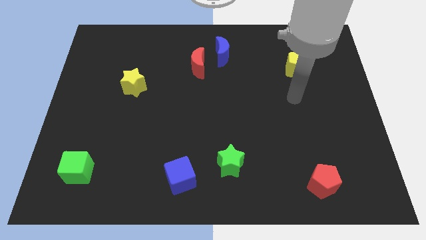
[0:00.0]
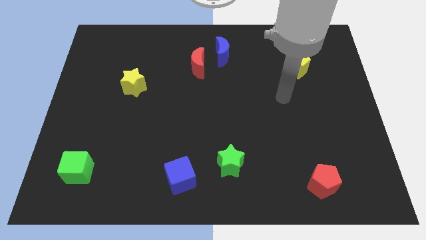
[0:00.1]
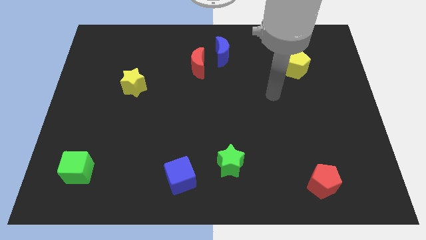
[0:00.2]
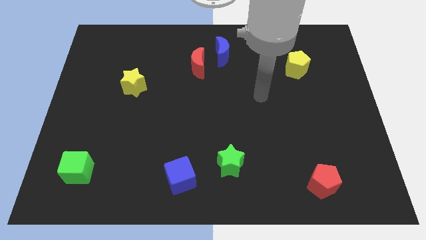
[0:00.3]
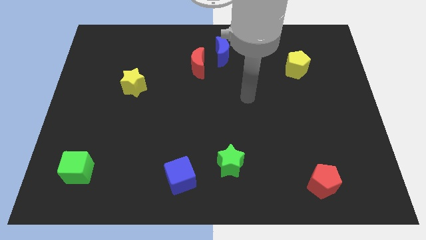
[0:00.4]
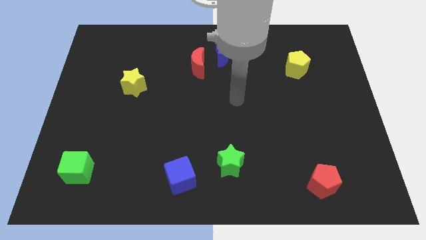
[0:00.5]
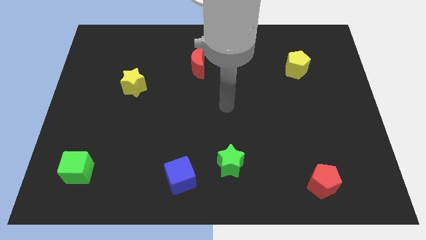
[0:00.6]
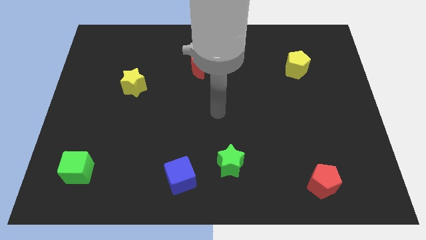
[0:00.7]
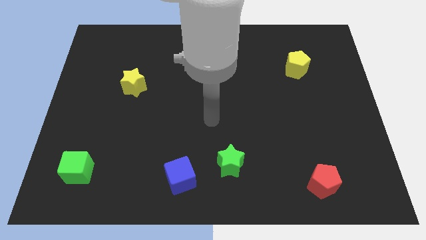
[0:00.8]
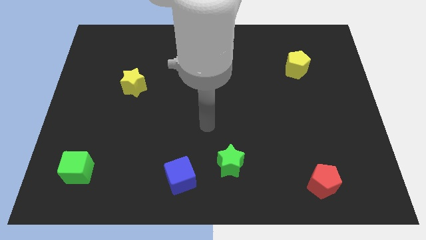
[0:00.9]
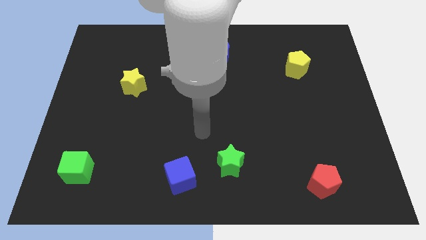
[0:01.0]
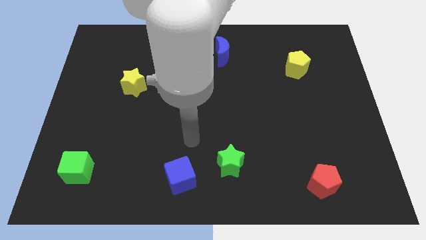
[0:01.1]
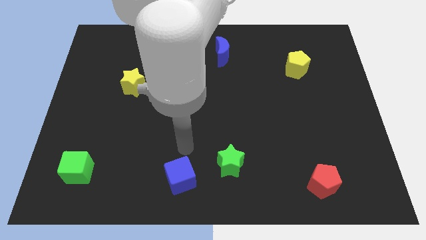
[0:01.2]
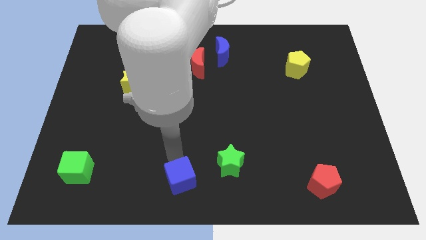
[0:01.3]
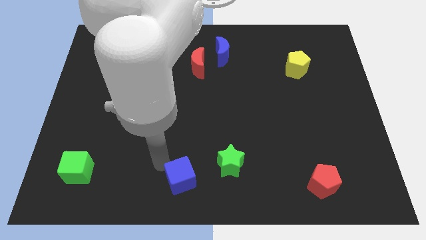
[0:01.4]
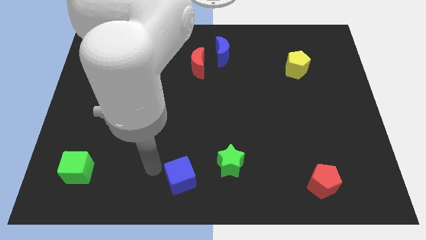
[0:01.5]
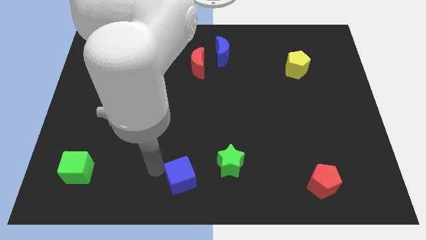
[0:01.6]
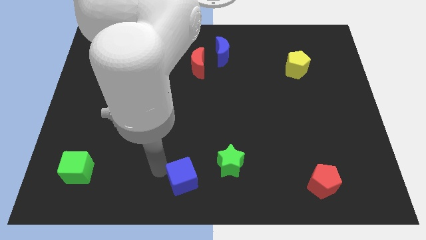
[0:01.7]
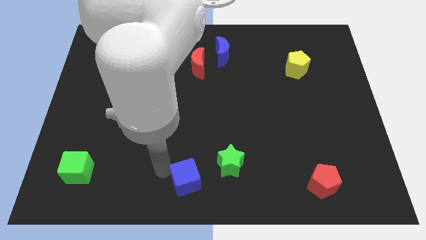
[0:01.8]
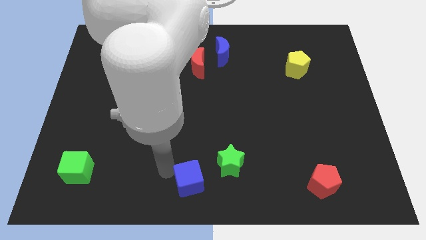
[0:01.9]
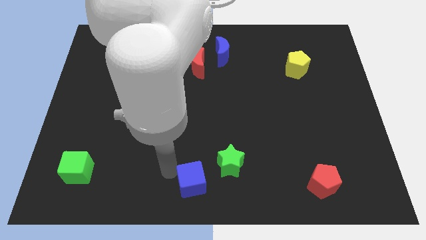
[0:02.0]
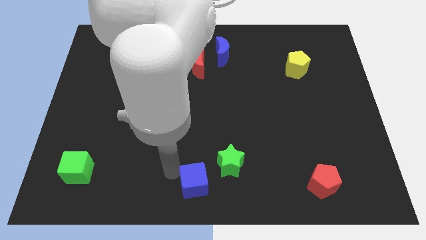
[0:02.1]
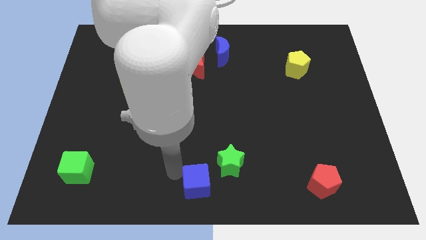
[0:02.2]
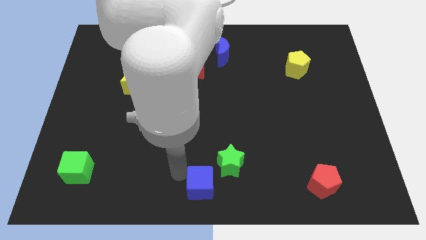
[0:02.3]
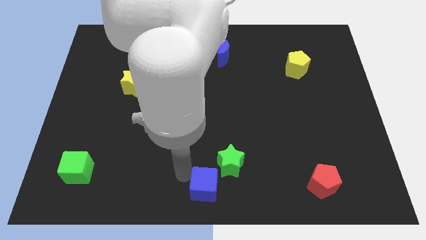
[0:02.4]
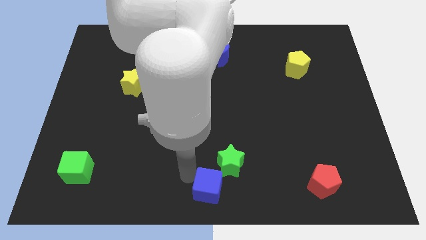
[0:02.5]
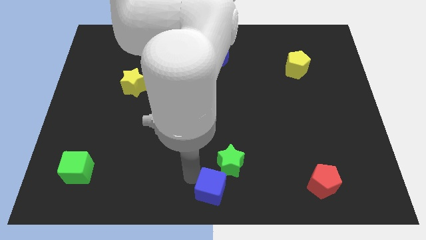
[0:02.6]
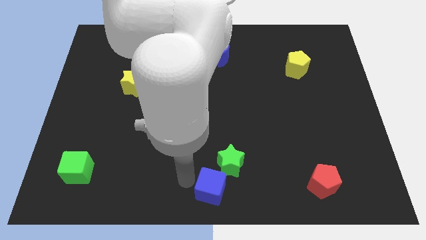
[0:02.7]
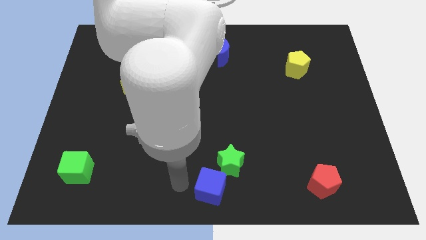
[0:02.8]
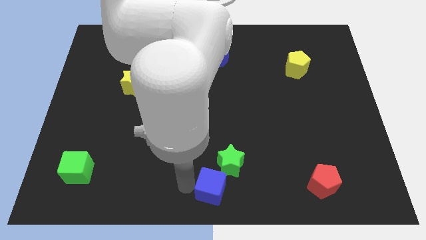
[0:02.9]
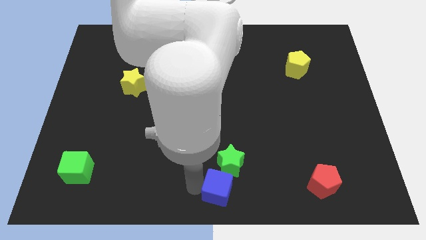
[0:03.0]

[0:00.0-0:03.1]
slide the blue cube slightly to the right

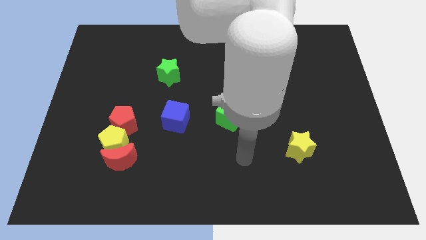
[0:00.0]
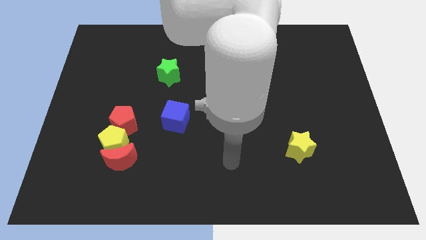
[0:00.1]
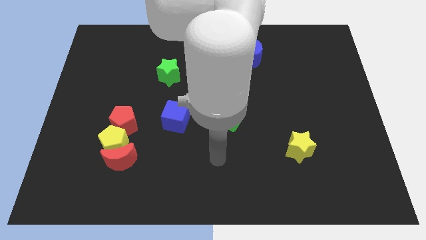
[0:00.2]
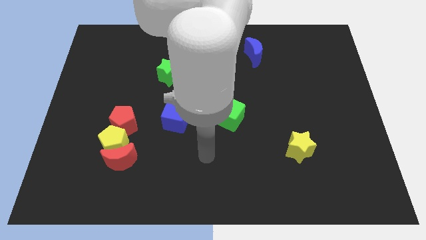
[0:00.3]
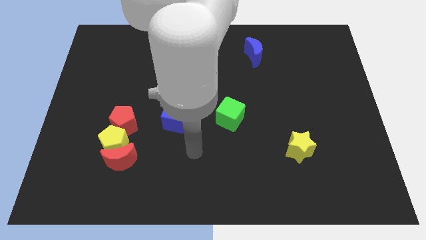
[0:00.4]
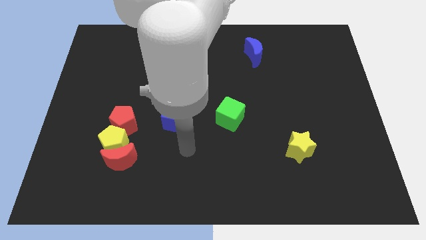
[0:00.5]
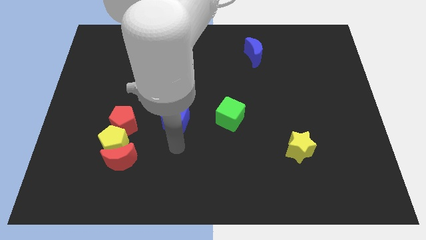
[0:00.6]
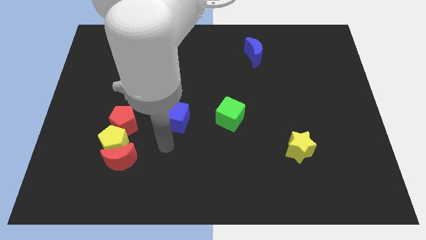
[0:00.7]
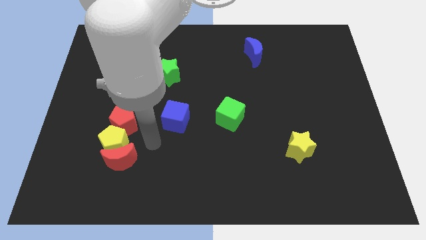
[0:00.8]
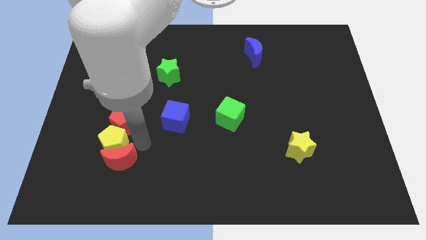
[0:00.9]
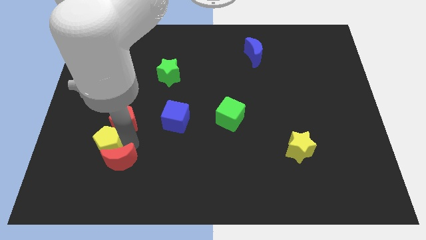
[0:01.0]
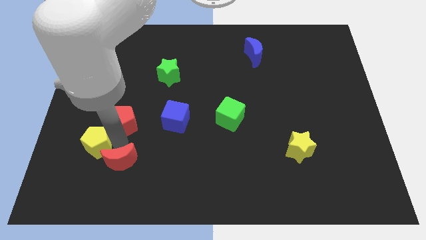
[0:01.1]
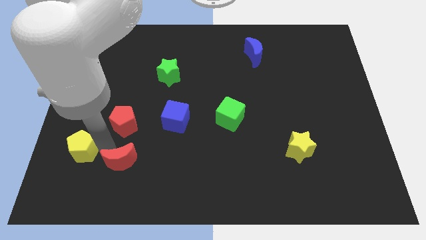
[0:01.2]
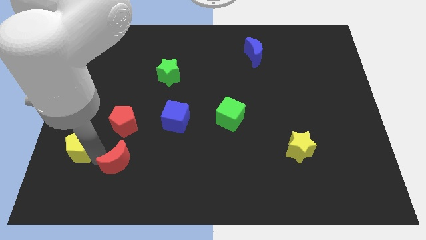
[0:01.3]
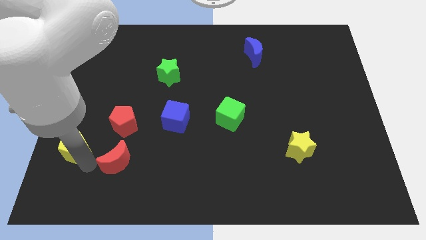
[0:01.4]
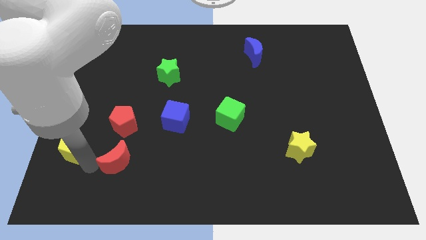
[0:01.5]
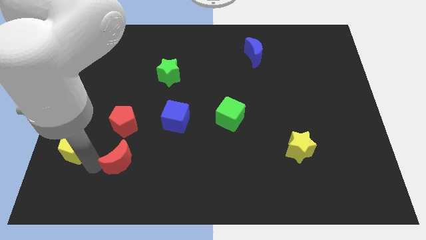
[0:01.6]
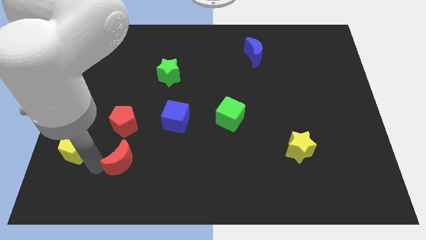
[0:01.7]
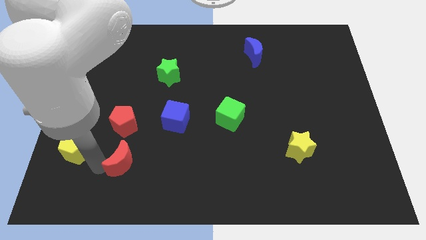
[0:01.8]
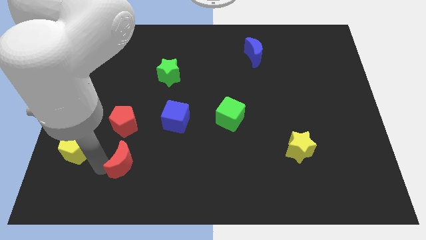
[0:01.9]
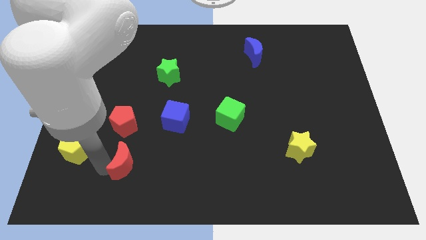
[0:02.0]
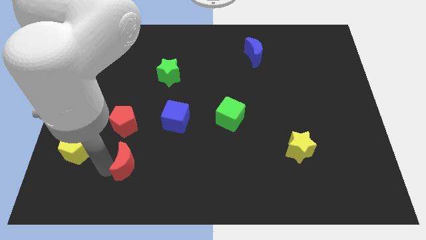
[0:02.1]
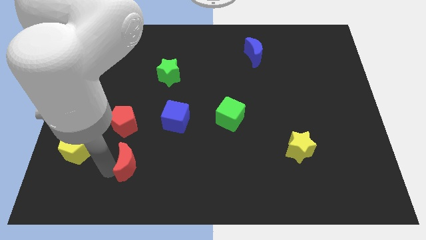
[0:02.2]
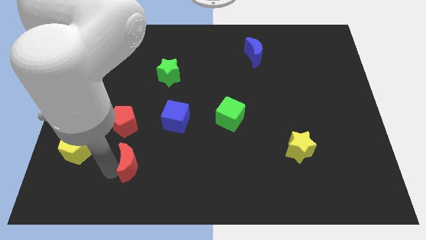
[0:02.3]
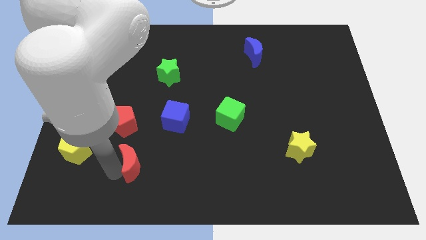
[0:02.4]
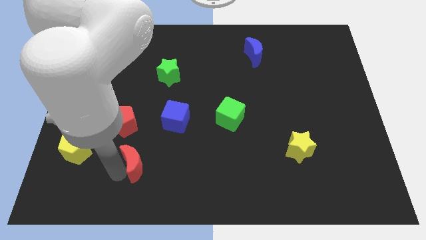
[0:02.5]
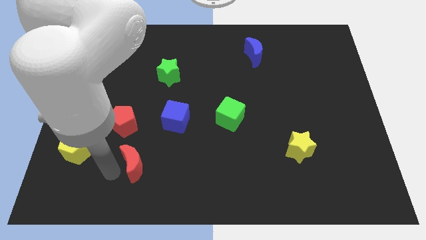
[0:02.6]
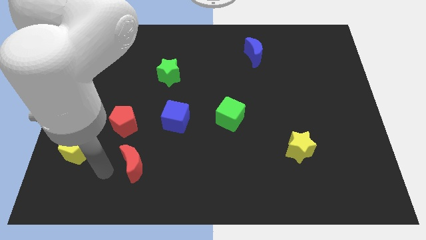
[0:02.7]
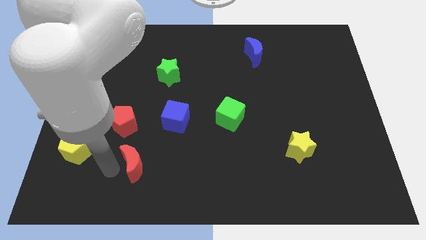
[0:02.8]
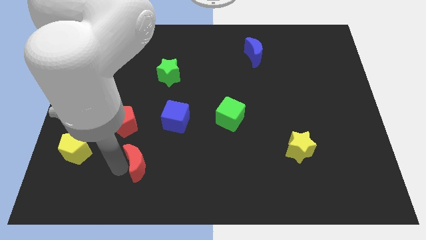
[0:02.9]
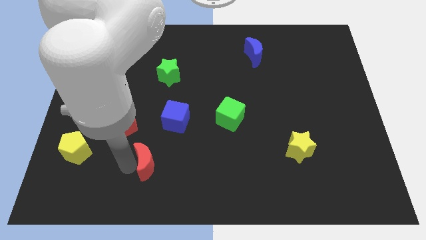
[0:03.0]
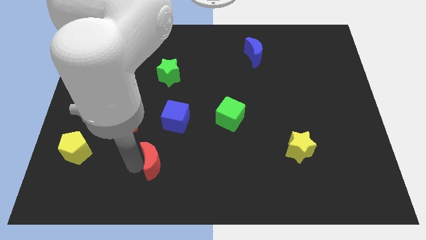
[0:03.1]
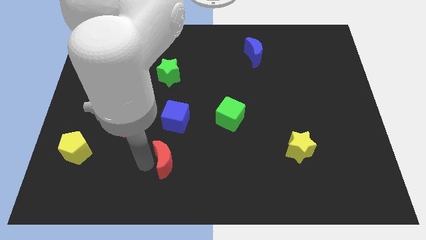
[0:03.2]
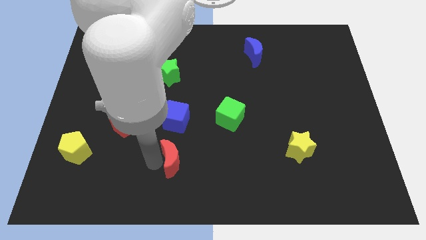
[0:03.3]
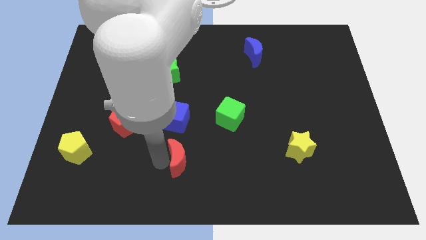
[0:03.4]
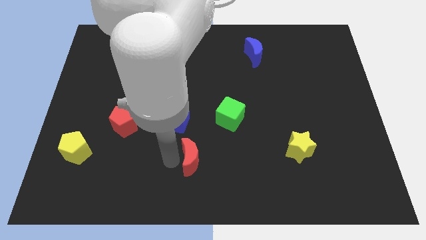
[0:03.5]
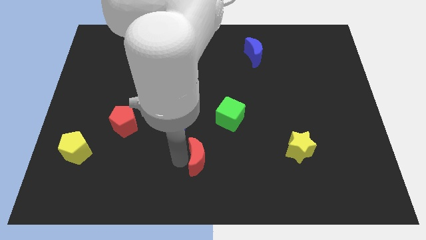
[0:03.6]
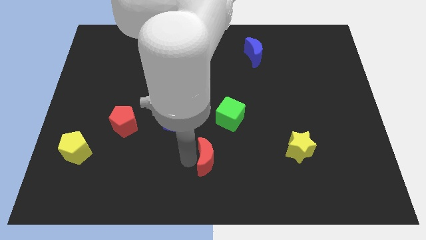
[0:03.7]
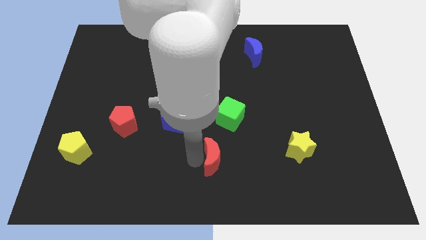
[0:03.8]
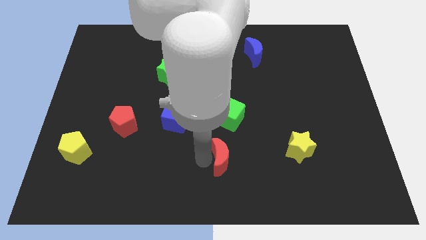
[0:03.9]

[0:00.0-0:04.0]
push the red moon to the right

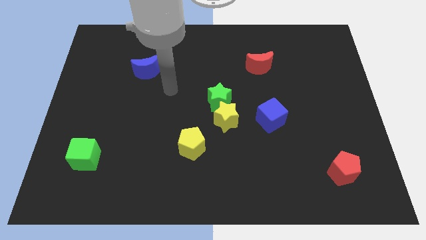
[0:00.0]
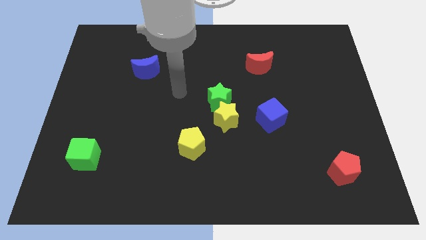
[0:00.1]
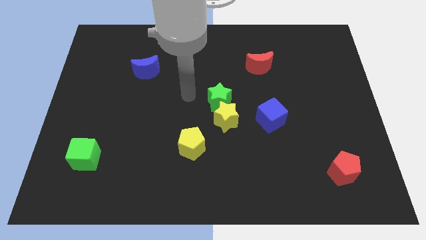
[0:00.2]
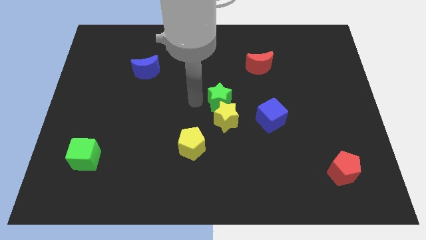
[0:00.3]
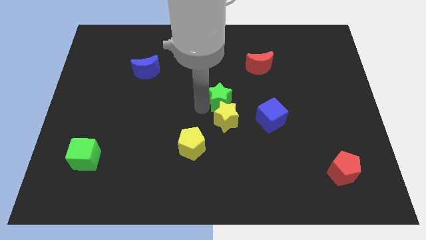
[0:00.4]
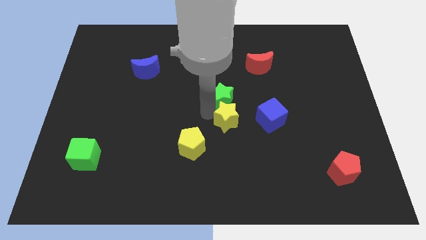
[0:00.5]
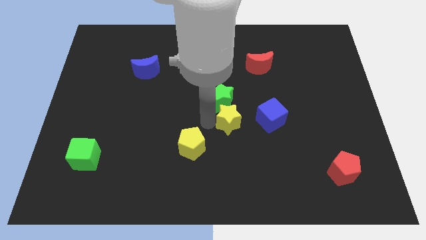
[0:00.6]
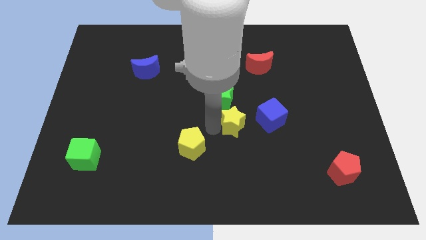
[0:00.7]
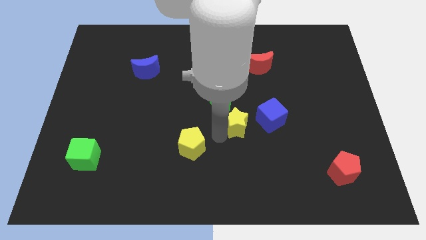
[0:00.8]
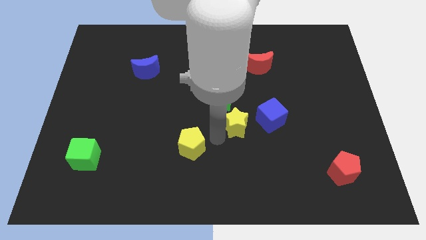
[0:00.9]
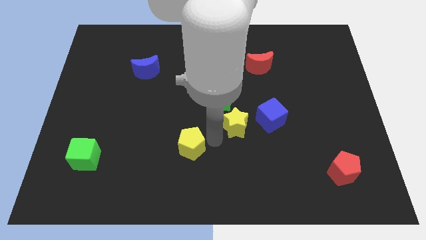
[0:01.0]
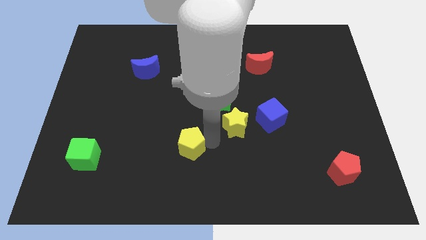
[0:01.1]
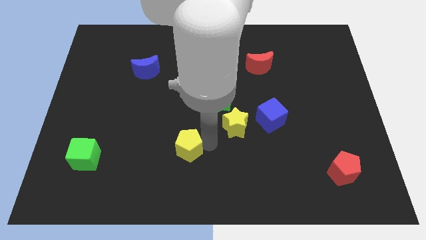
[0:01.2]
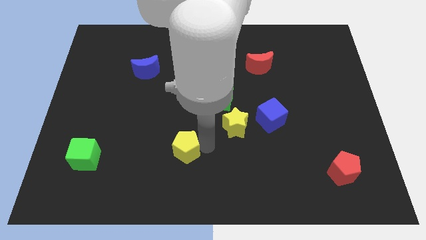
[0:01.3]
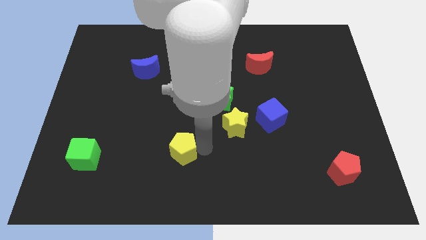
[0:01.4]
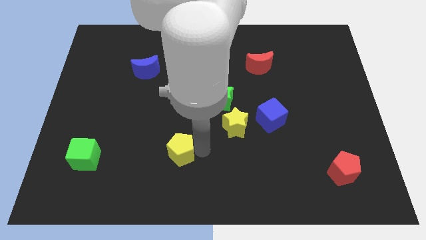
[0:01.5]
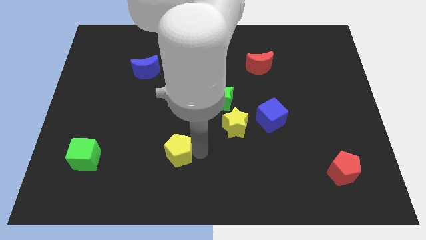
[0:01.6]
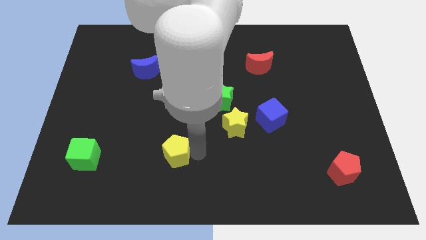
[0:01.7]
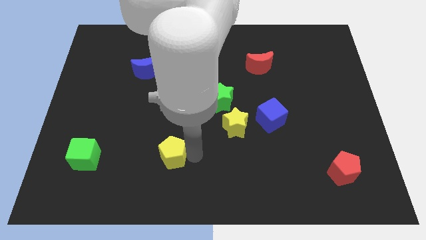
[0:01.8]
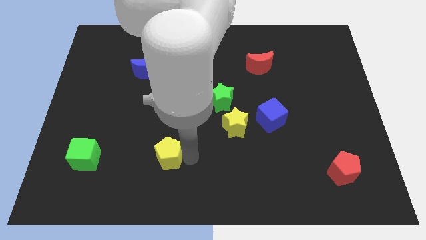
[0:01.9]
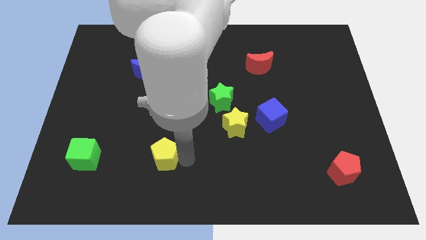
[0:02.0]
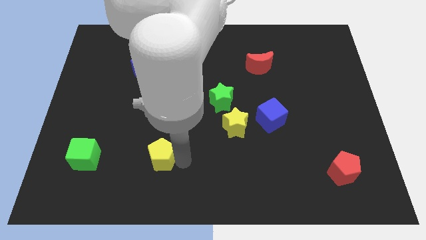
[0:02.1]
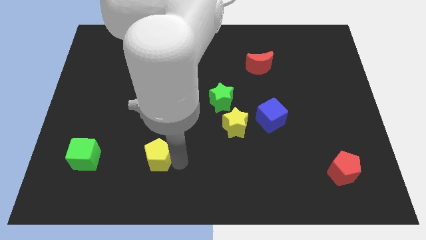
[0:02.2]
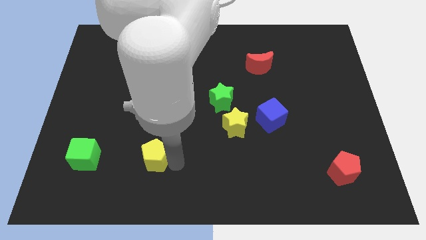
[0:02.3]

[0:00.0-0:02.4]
slightly slide the yellow pentagon to the left
